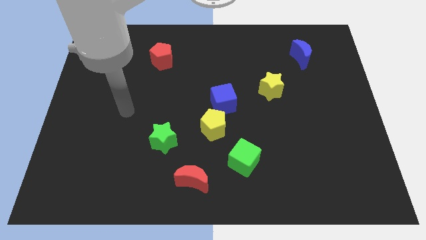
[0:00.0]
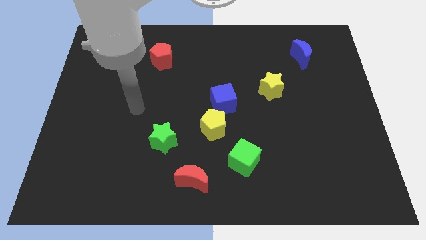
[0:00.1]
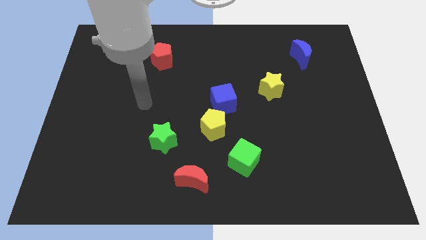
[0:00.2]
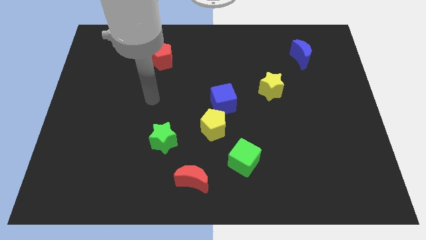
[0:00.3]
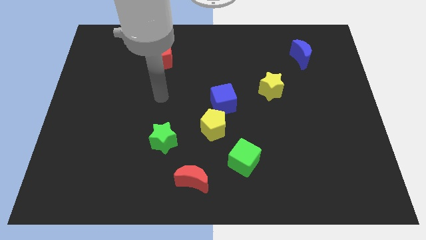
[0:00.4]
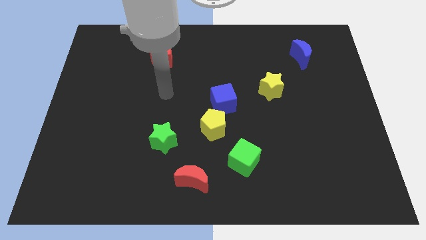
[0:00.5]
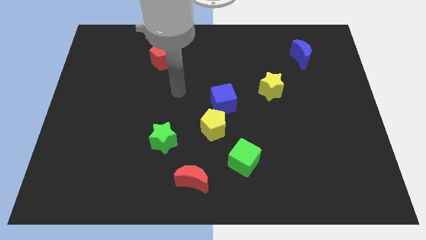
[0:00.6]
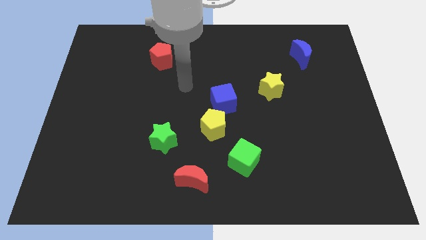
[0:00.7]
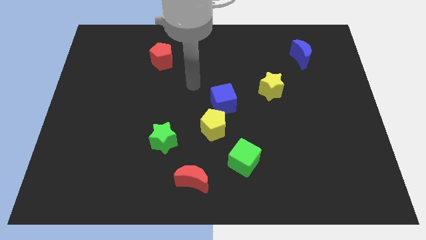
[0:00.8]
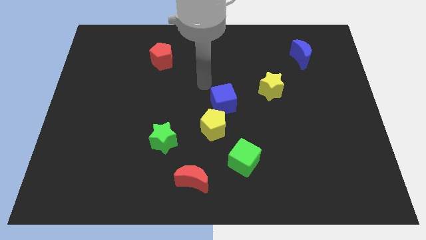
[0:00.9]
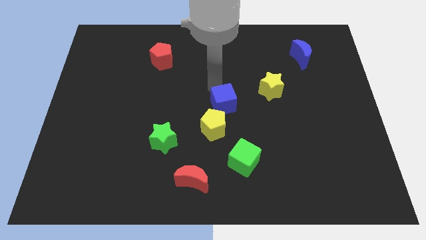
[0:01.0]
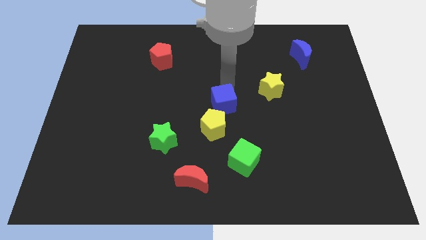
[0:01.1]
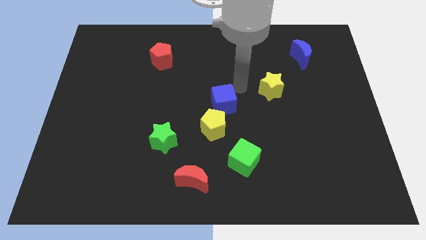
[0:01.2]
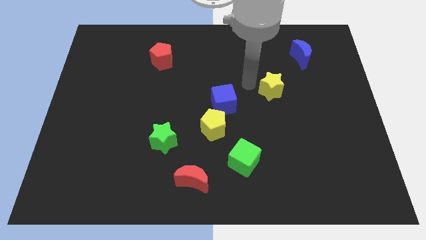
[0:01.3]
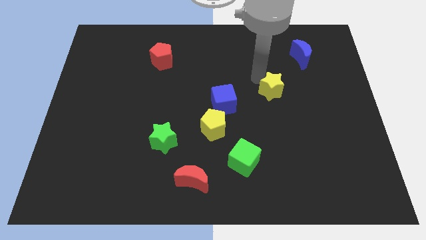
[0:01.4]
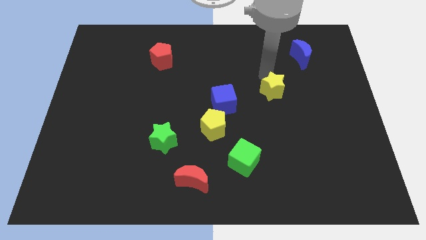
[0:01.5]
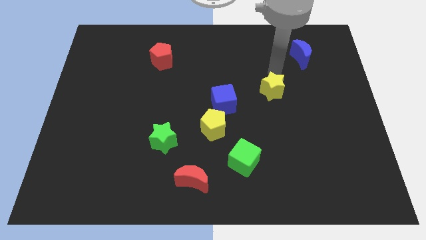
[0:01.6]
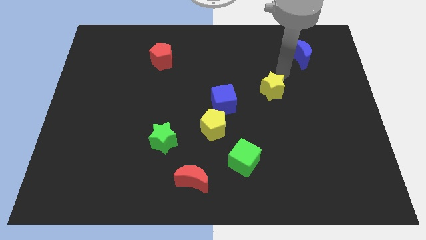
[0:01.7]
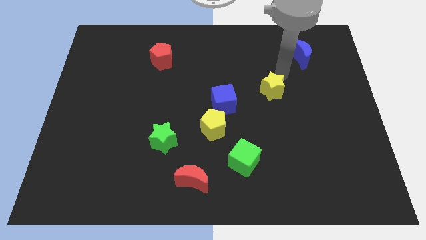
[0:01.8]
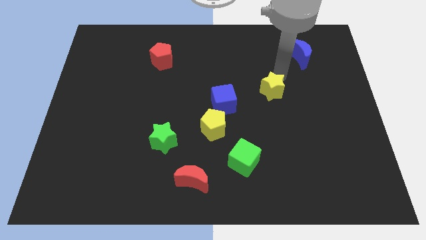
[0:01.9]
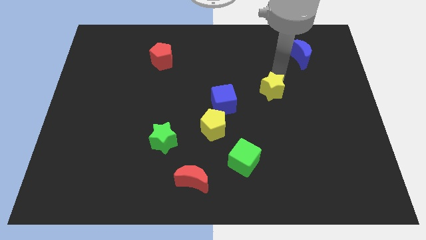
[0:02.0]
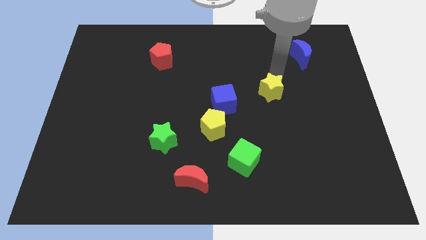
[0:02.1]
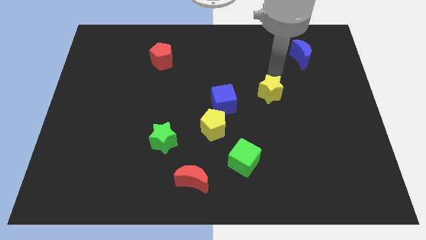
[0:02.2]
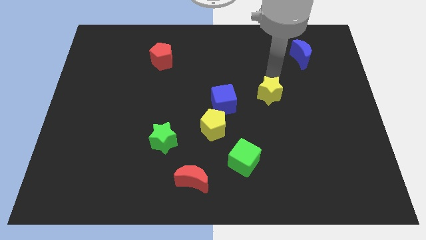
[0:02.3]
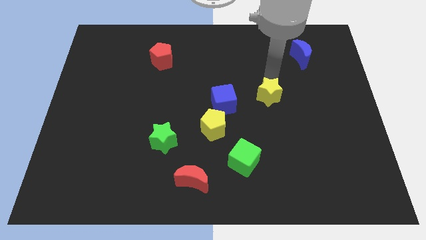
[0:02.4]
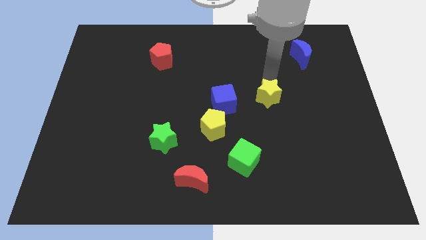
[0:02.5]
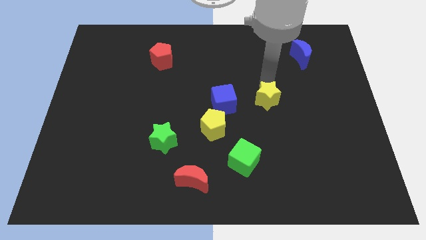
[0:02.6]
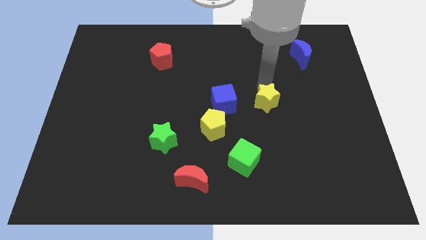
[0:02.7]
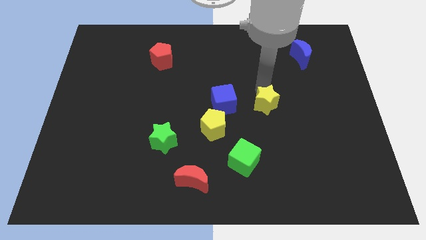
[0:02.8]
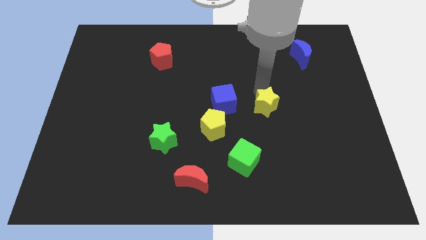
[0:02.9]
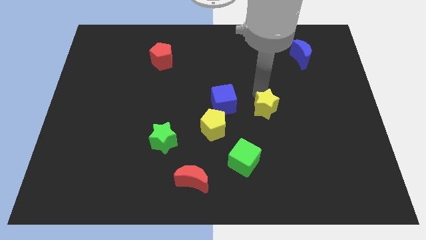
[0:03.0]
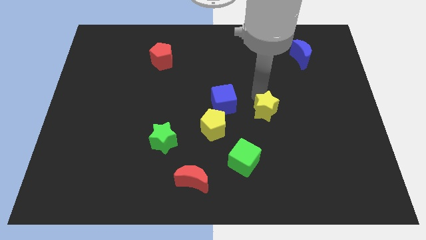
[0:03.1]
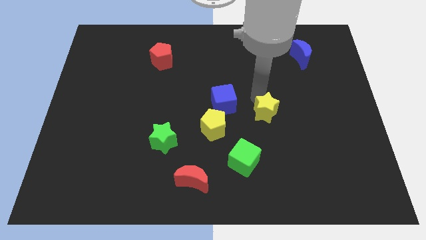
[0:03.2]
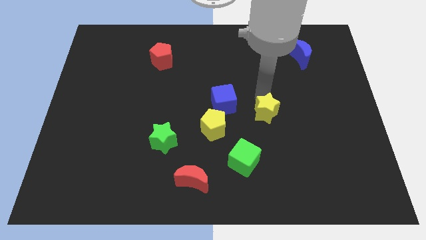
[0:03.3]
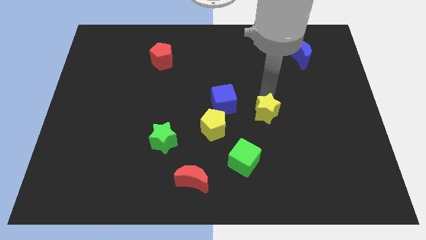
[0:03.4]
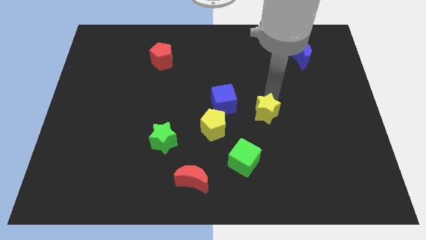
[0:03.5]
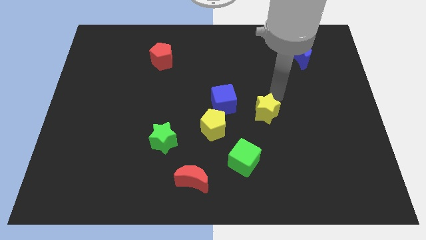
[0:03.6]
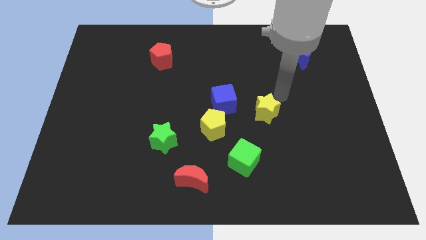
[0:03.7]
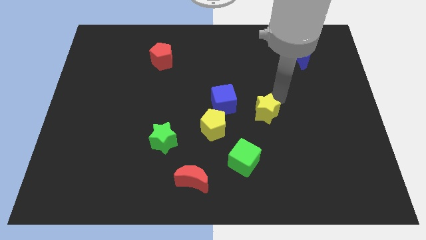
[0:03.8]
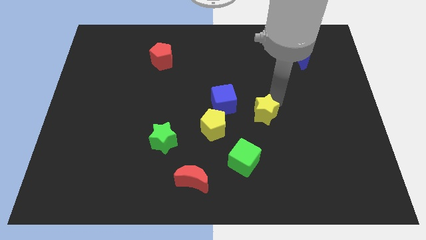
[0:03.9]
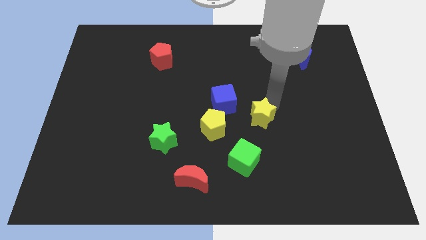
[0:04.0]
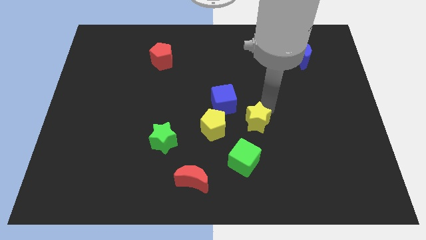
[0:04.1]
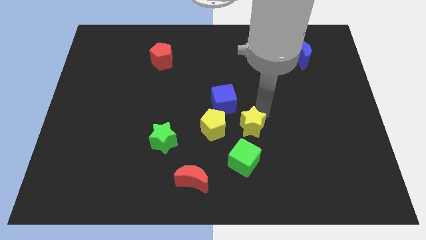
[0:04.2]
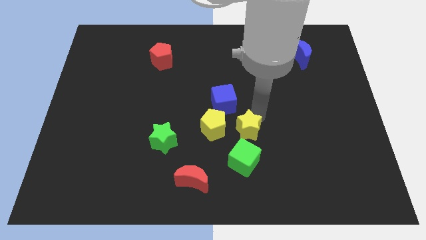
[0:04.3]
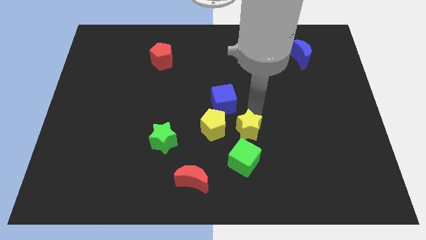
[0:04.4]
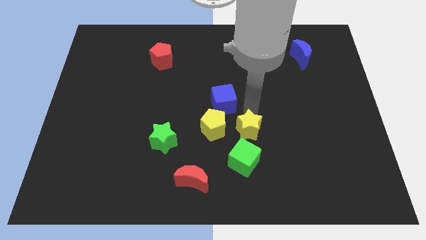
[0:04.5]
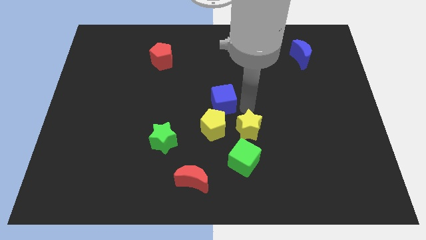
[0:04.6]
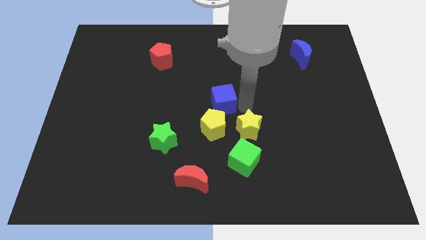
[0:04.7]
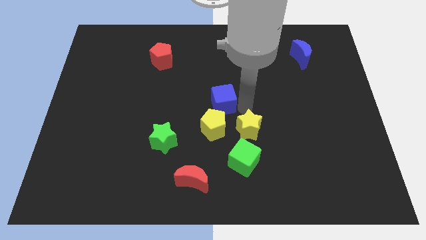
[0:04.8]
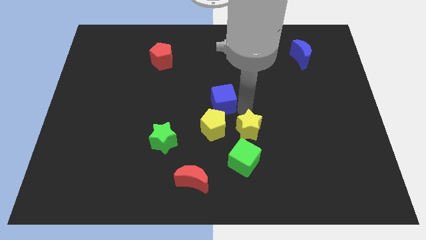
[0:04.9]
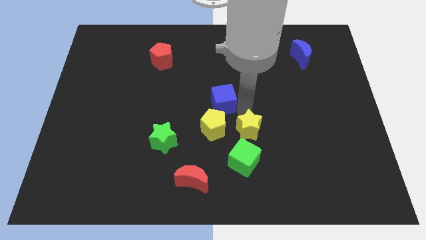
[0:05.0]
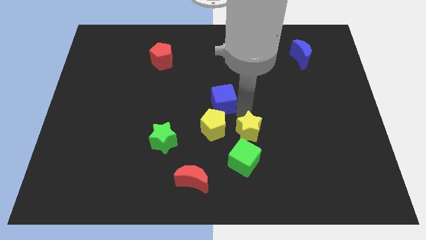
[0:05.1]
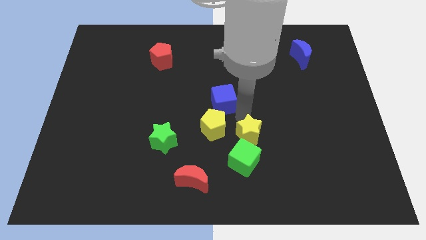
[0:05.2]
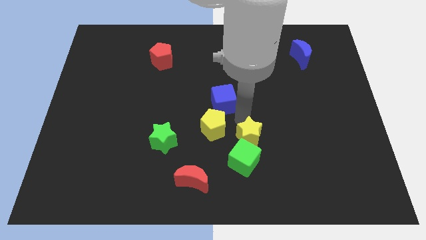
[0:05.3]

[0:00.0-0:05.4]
slide the yellow star towards the green cube

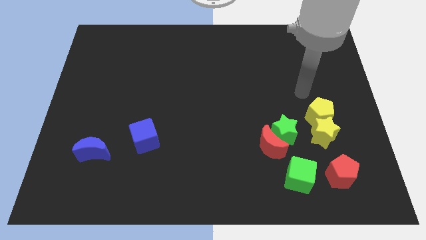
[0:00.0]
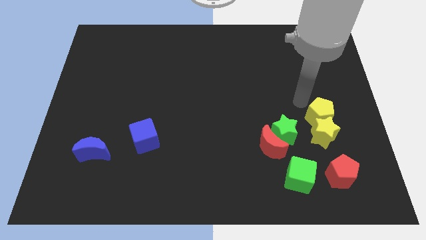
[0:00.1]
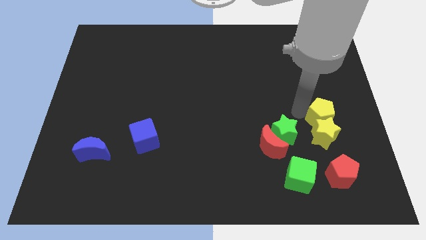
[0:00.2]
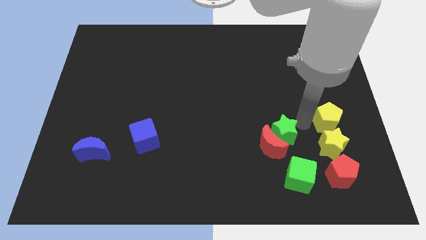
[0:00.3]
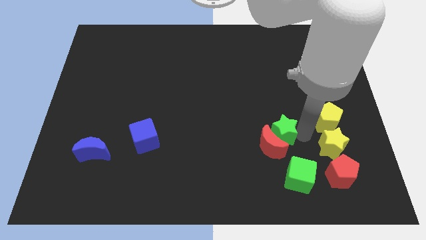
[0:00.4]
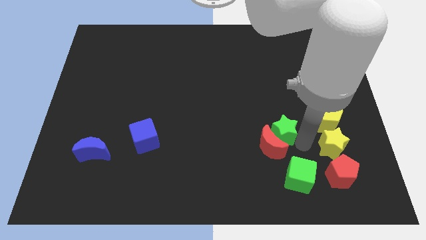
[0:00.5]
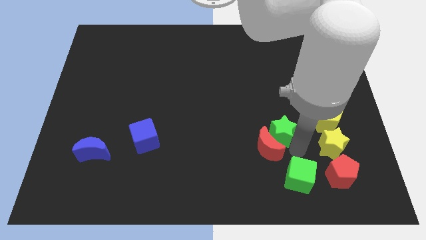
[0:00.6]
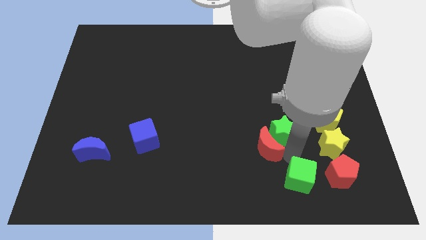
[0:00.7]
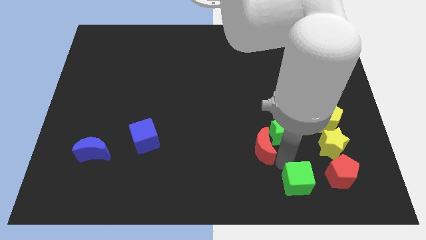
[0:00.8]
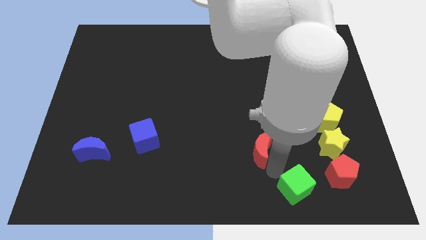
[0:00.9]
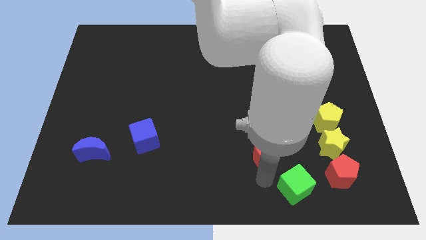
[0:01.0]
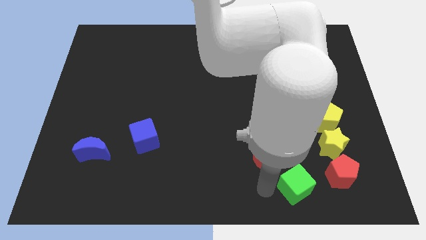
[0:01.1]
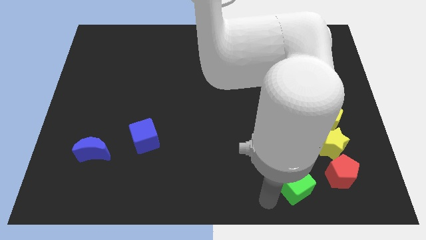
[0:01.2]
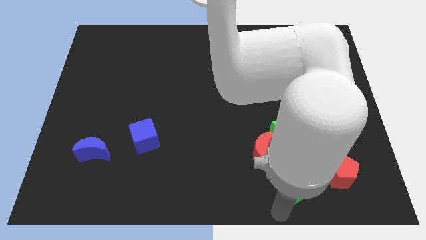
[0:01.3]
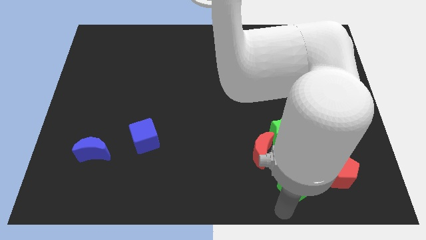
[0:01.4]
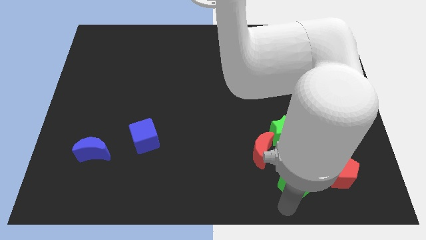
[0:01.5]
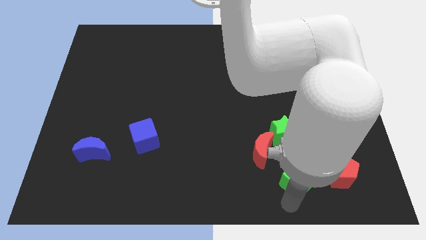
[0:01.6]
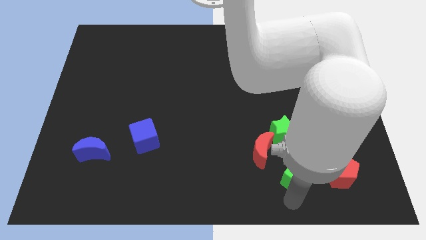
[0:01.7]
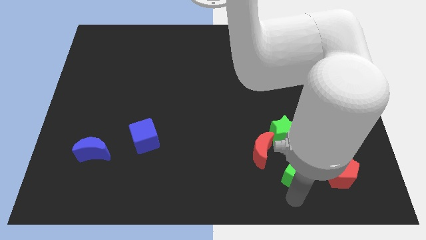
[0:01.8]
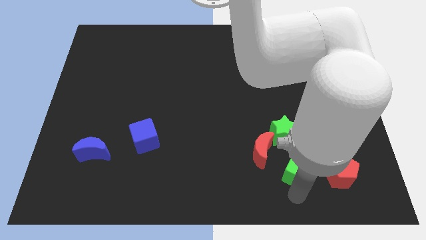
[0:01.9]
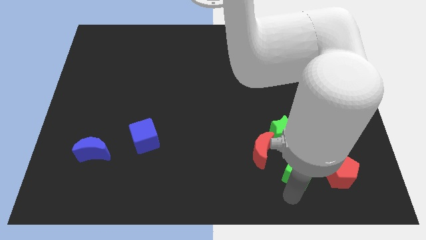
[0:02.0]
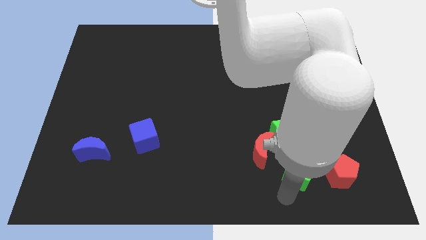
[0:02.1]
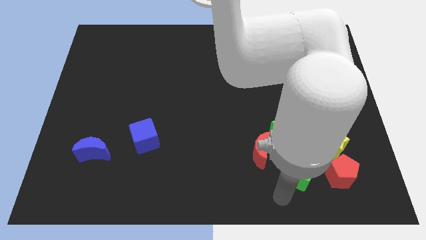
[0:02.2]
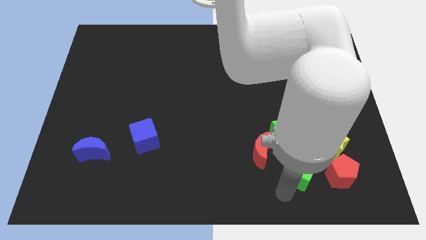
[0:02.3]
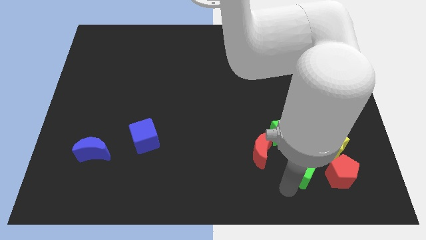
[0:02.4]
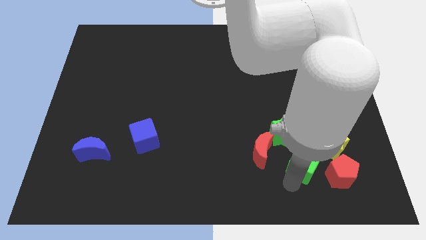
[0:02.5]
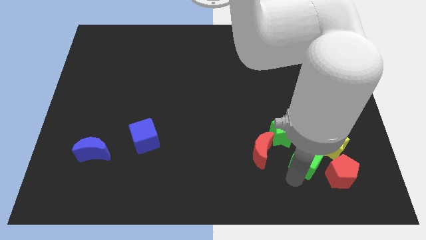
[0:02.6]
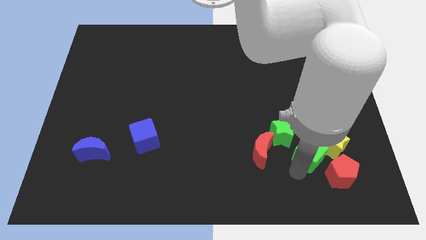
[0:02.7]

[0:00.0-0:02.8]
slide the green cube towards the yellow star
